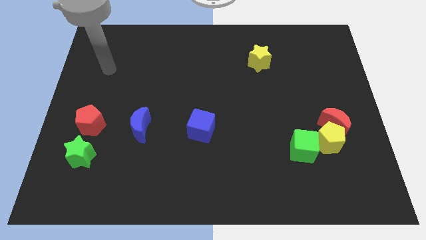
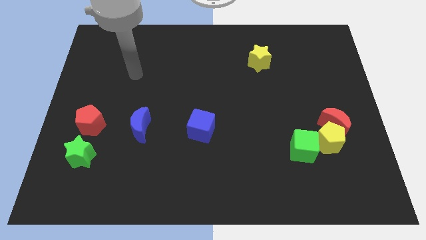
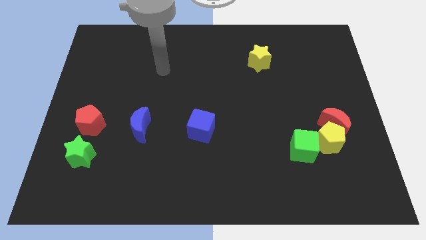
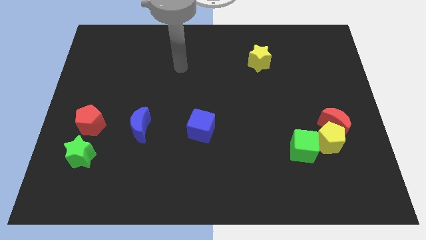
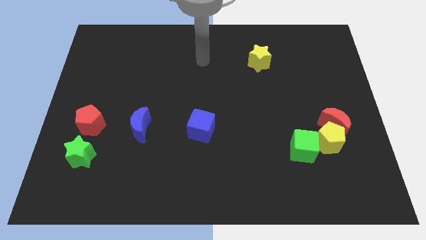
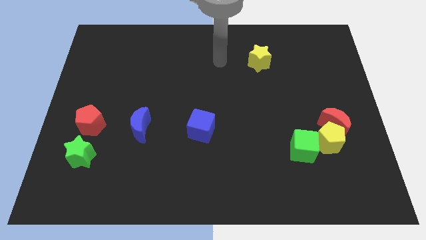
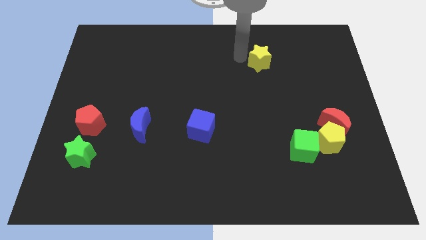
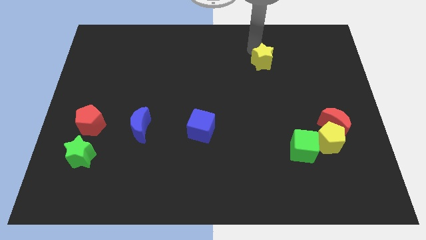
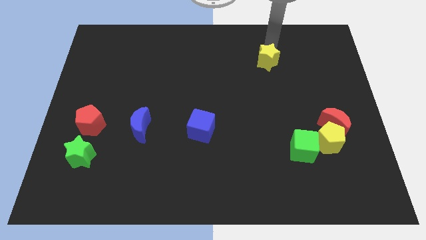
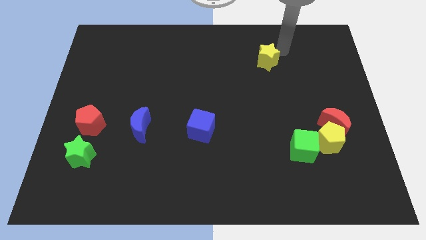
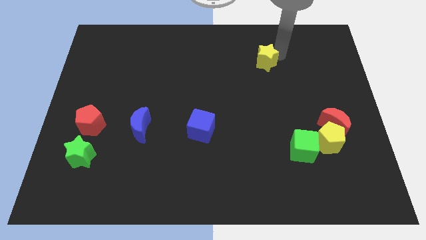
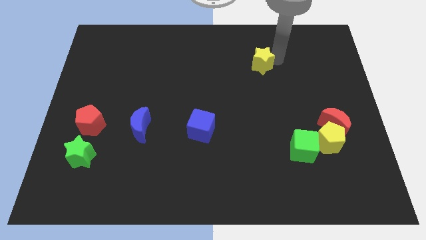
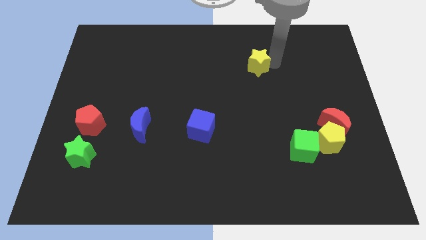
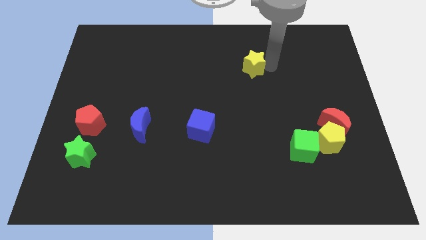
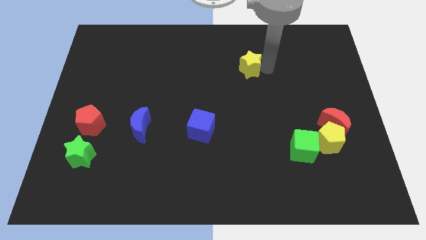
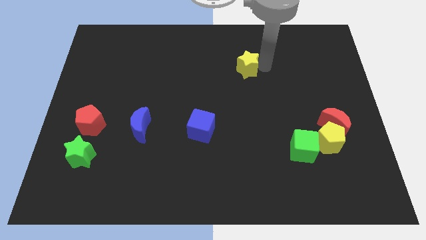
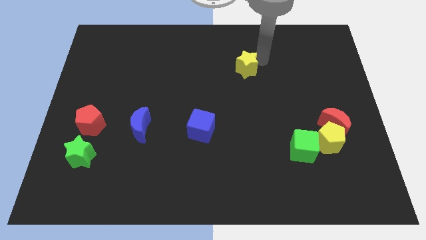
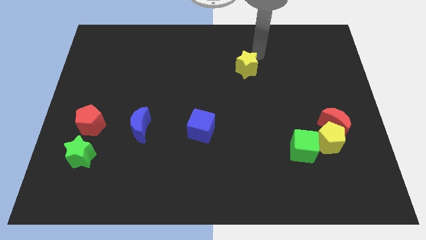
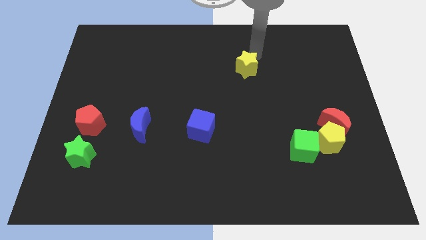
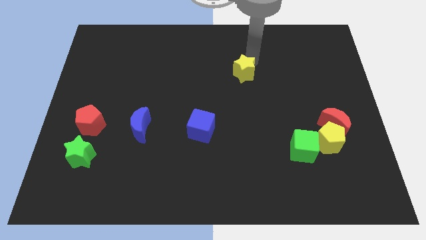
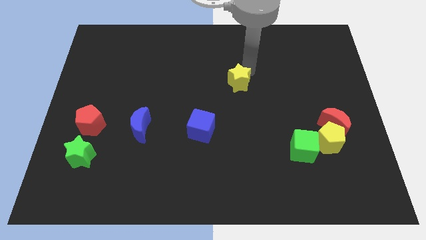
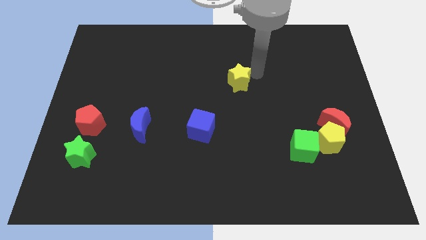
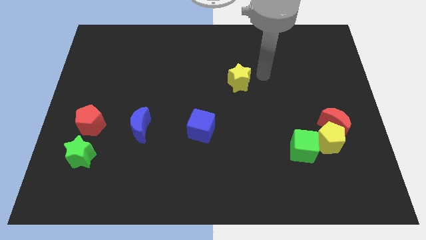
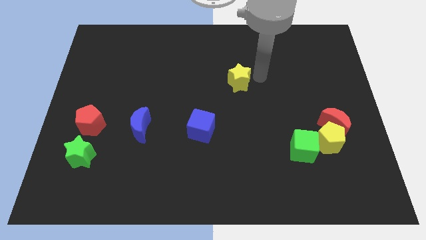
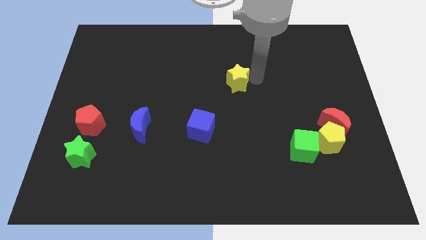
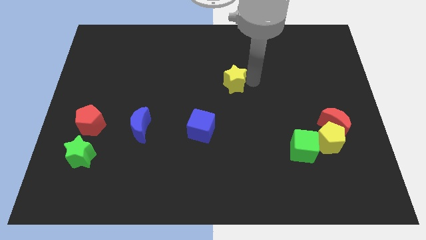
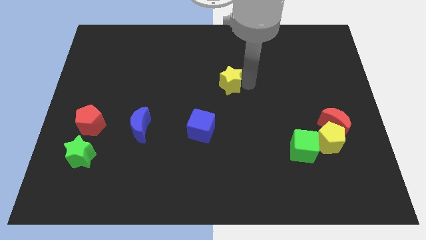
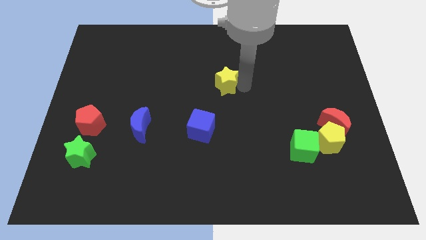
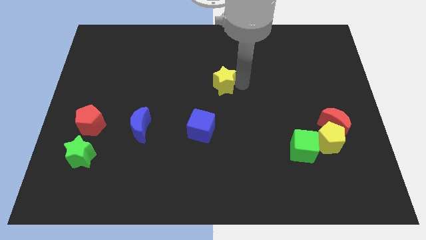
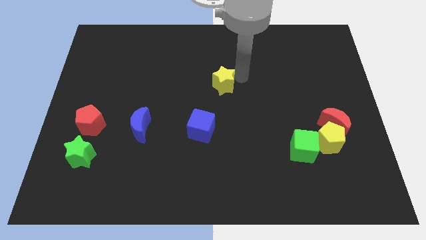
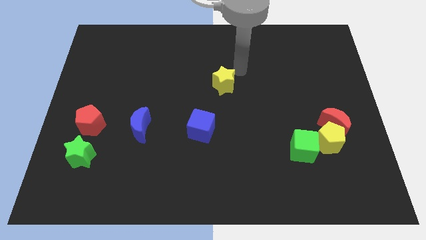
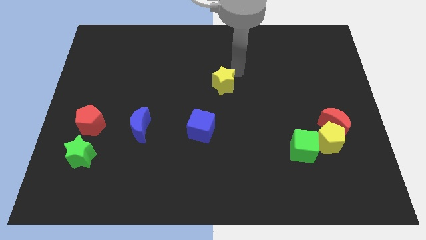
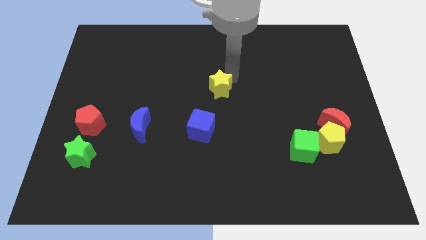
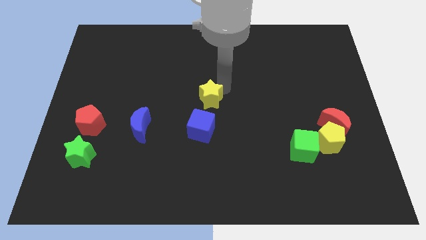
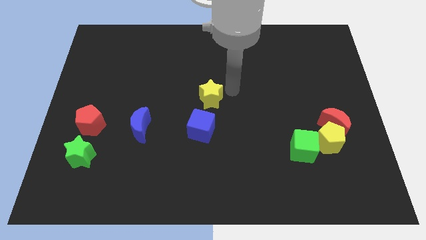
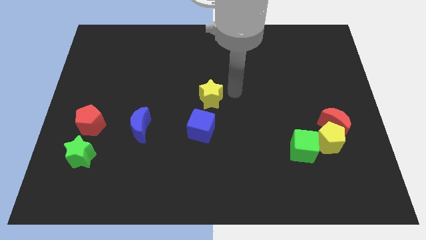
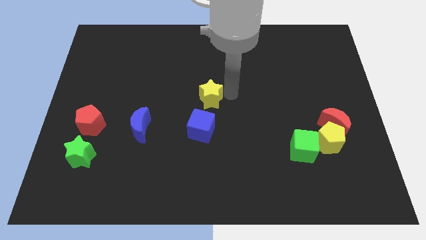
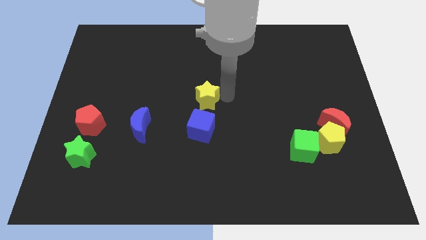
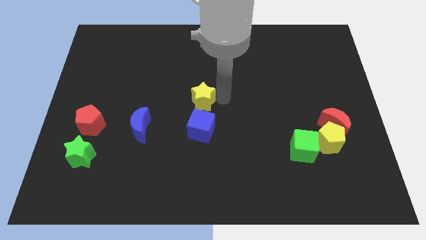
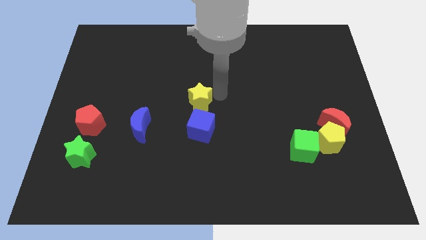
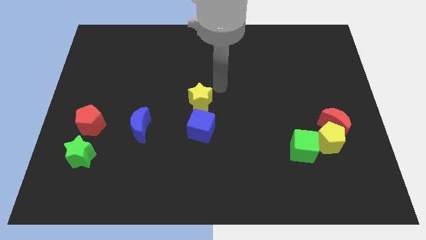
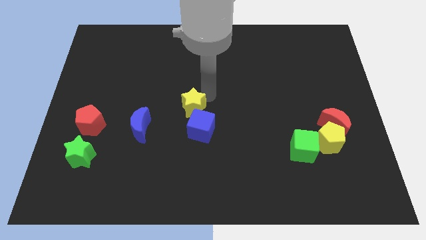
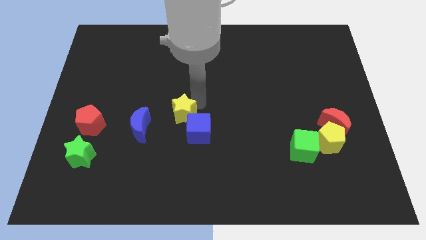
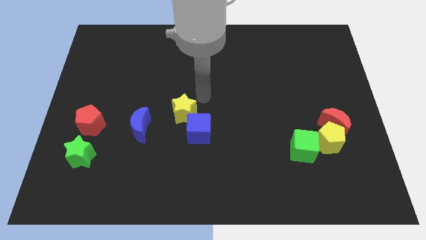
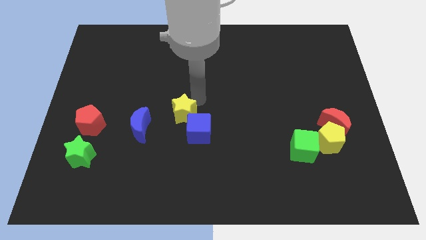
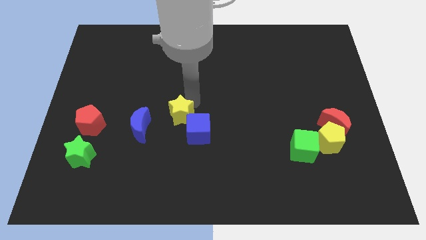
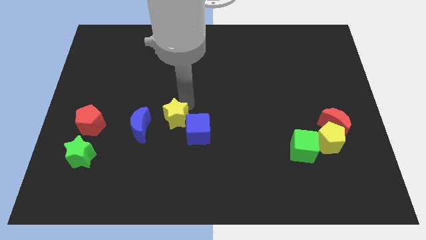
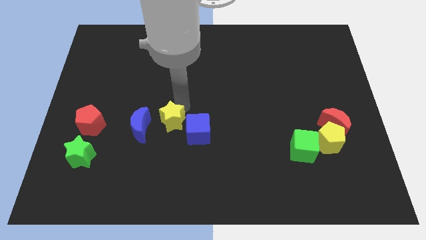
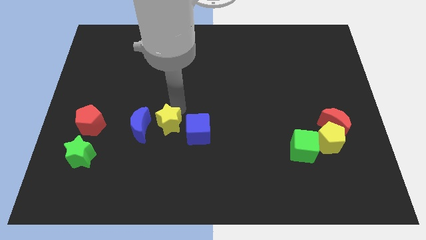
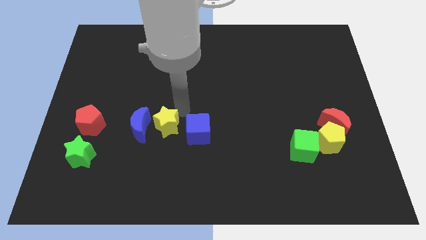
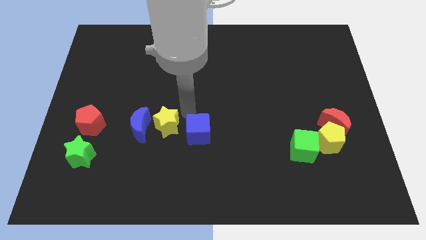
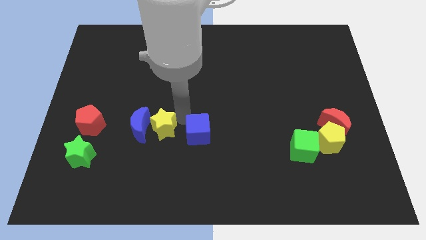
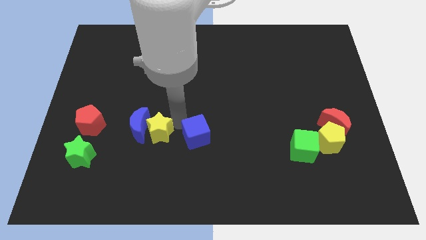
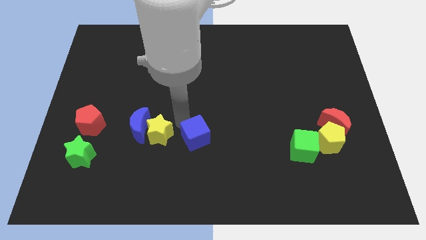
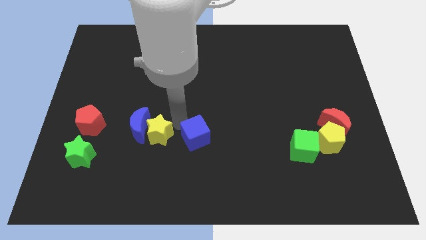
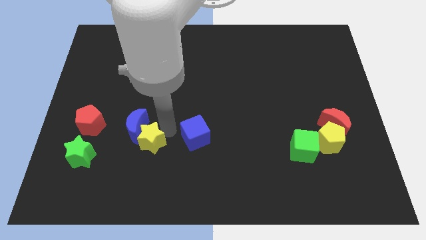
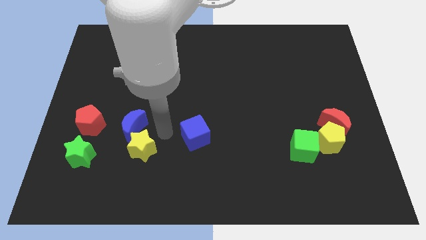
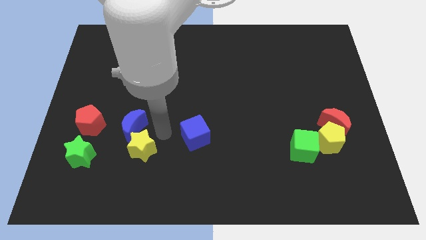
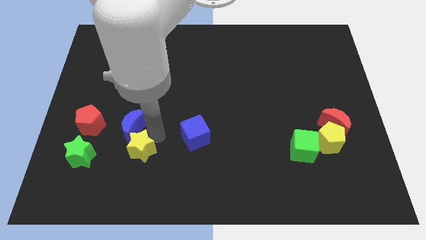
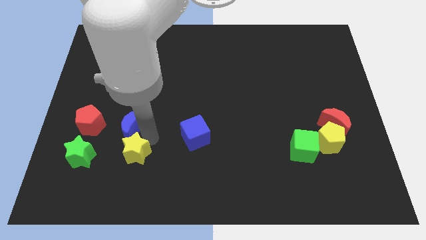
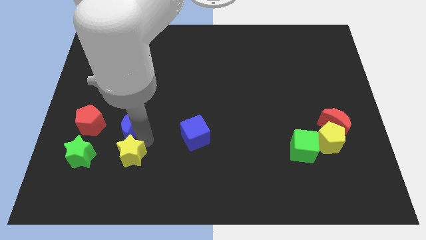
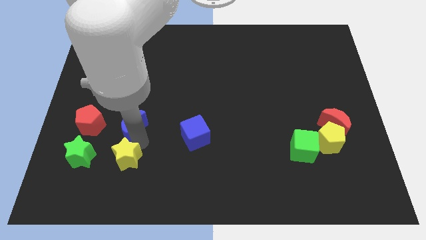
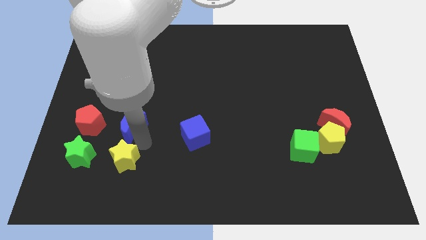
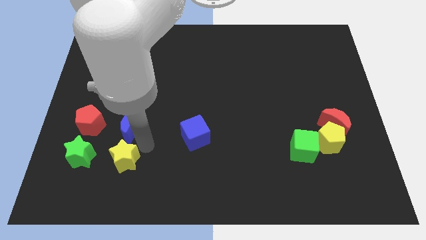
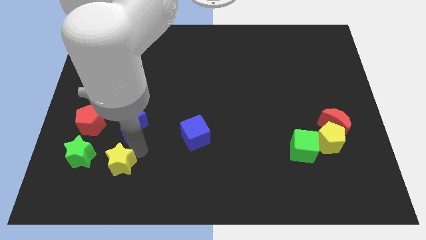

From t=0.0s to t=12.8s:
move the yellow star diagonally down and to the right of the green star

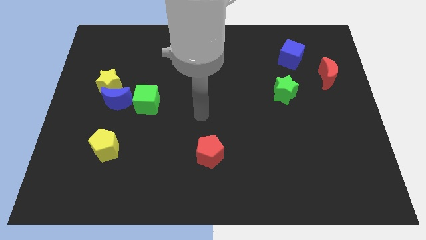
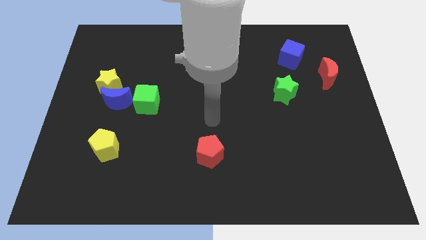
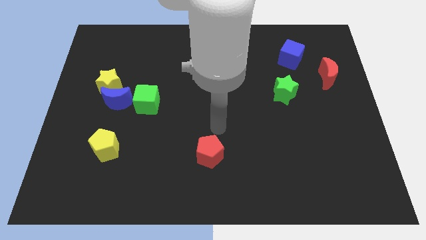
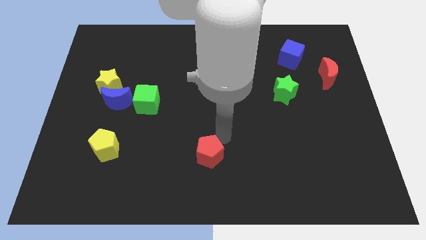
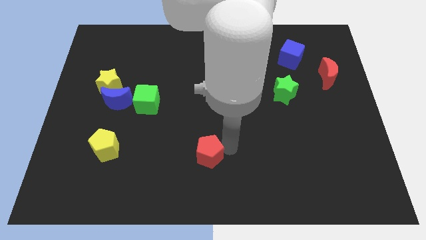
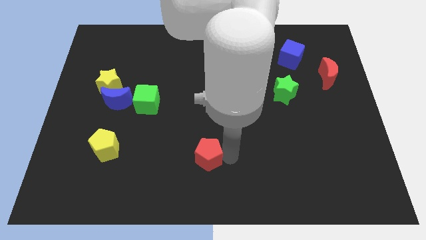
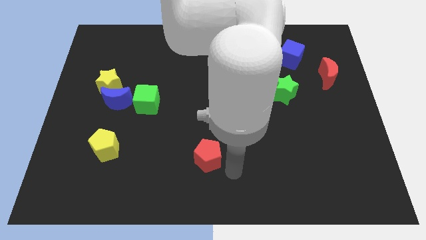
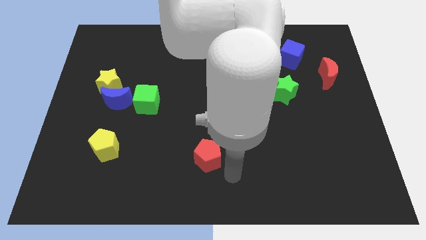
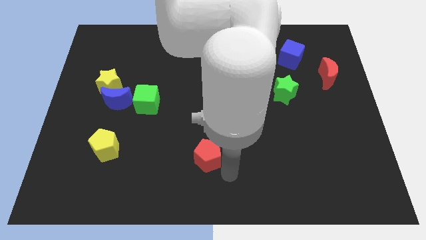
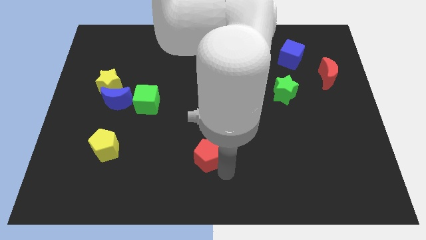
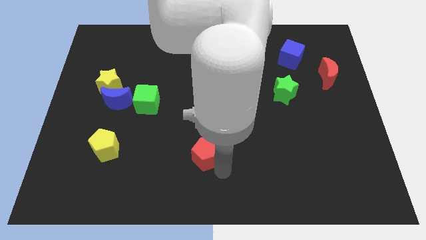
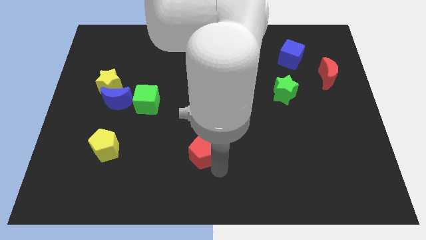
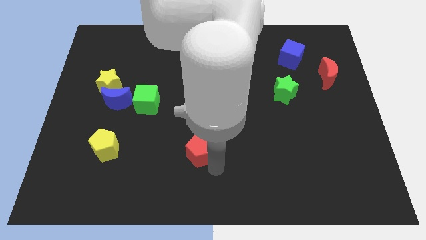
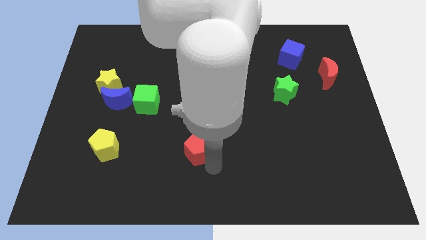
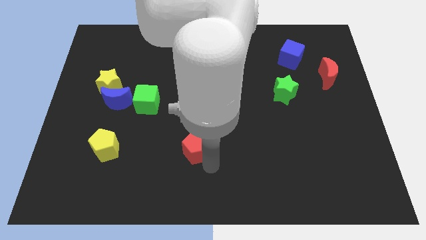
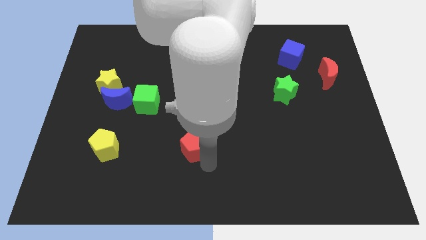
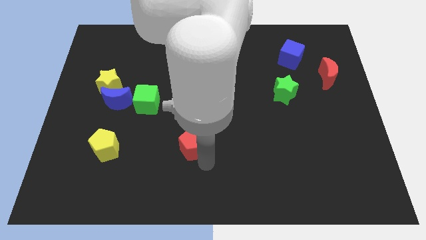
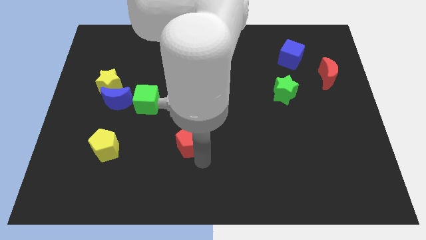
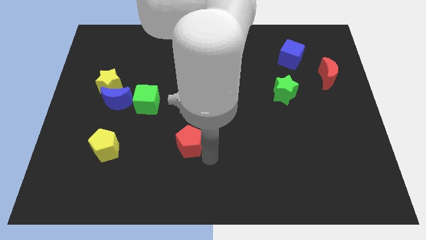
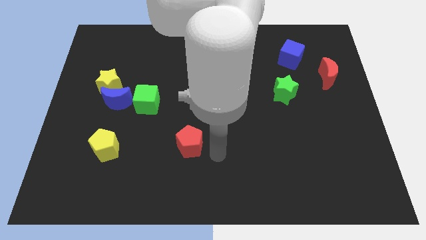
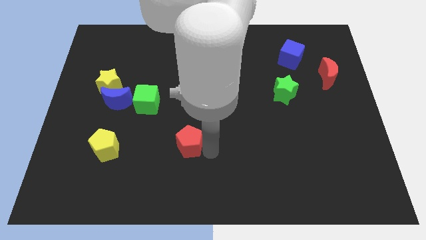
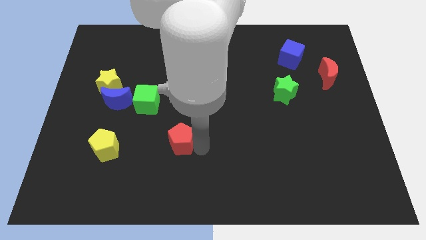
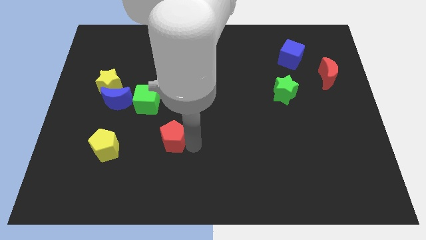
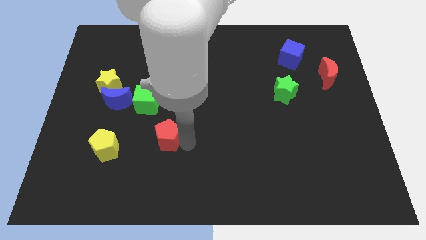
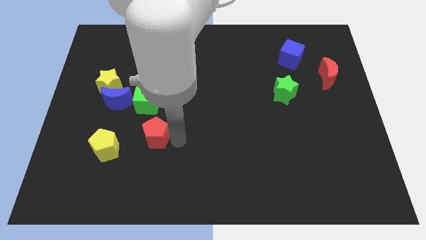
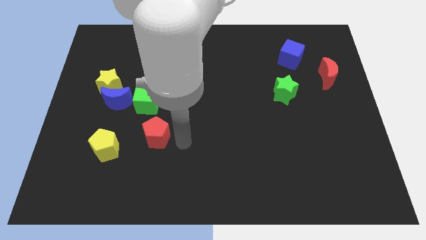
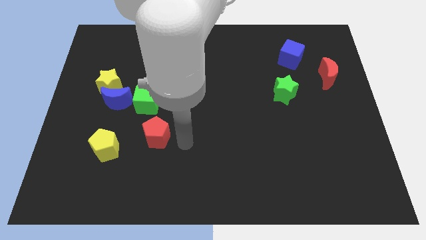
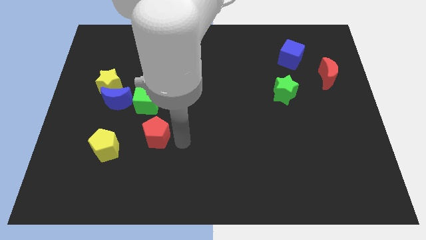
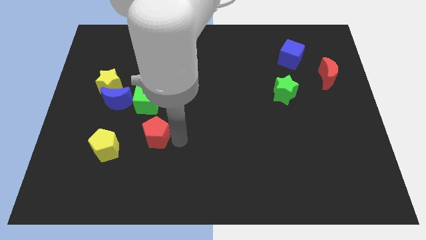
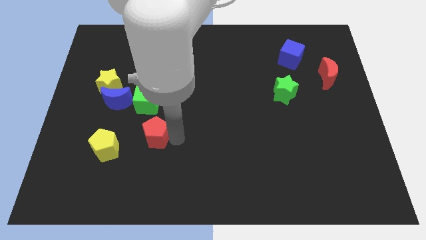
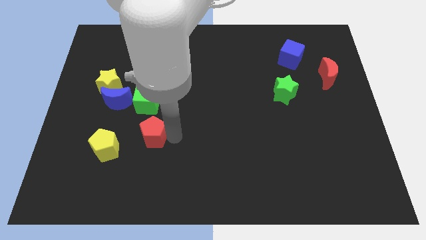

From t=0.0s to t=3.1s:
push the red pentagon to the top right of the yellow pentagon
